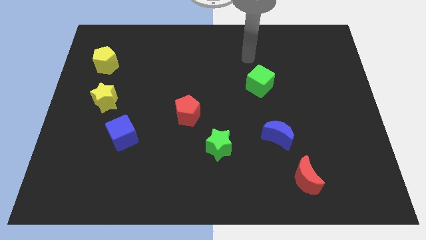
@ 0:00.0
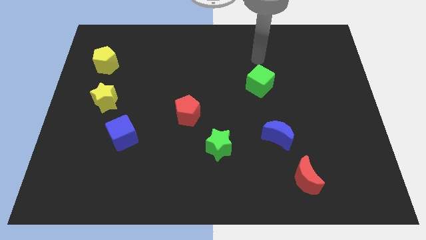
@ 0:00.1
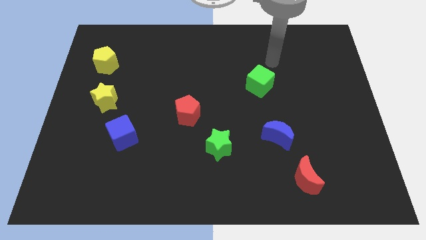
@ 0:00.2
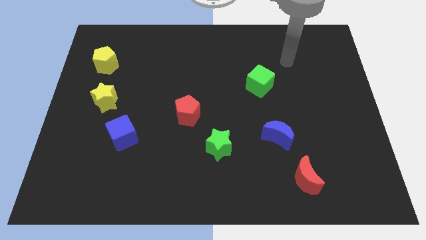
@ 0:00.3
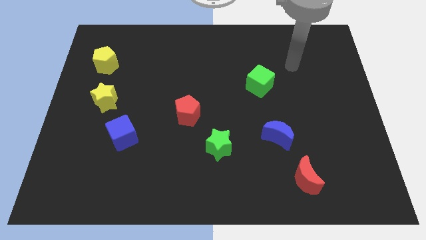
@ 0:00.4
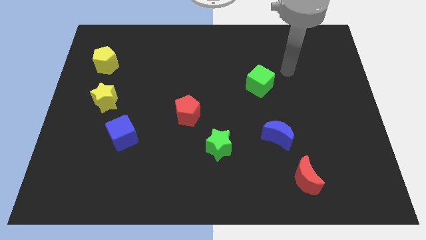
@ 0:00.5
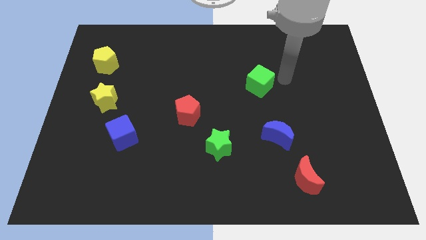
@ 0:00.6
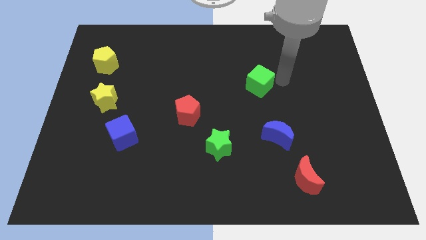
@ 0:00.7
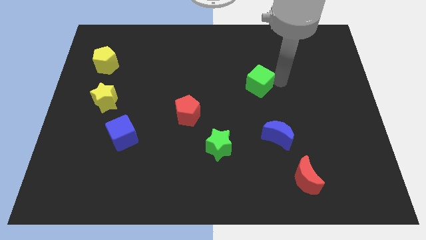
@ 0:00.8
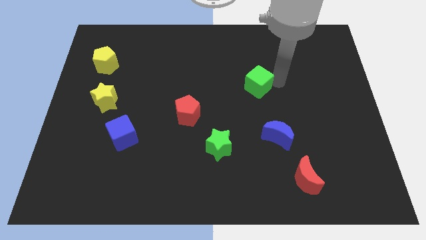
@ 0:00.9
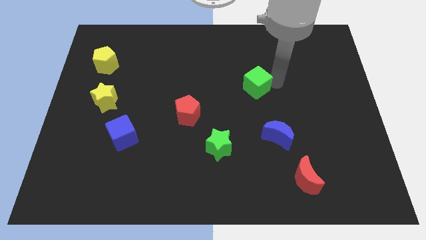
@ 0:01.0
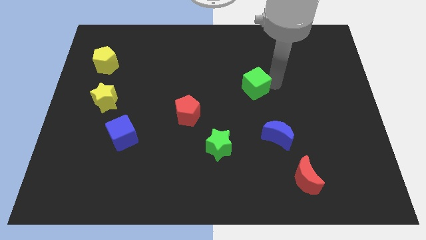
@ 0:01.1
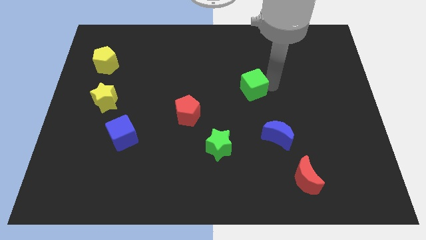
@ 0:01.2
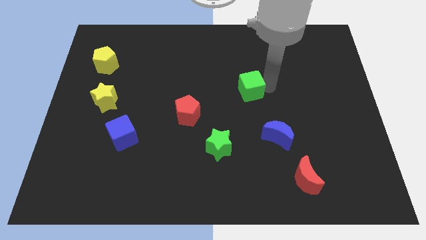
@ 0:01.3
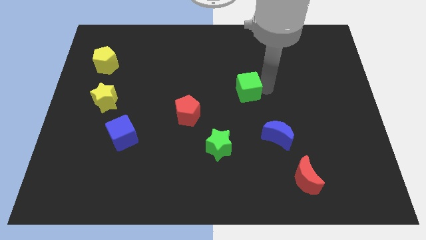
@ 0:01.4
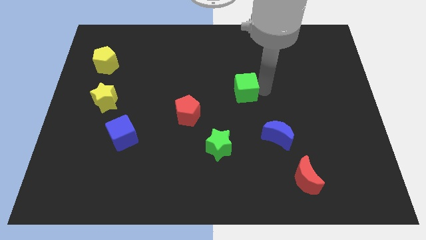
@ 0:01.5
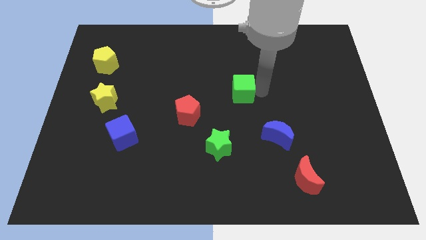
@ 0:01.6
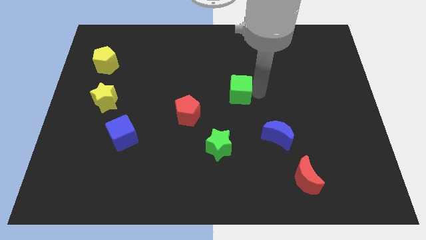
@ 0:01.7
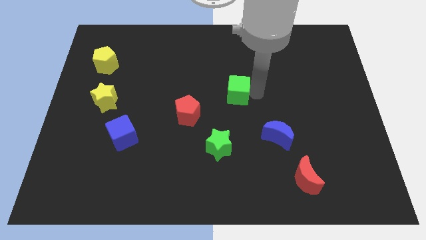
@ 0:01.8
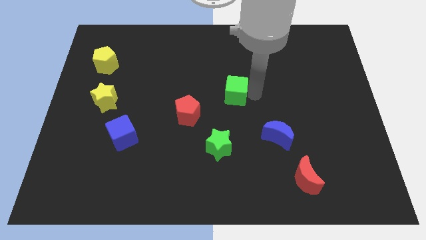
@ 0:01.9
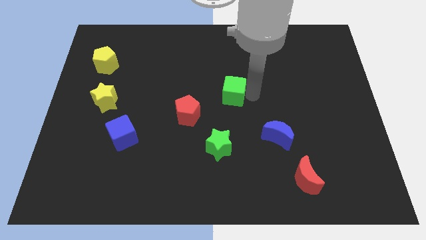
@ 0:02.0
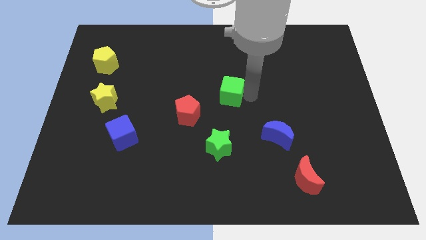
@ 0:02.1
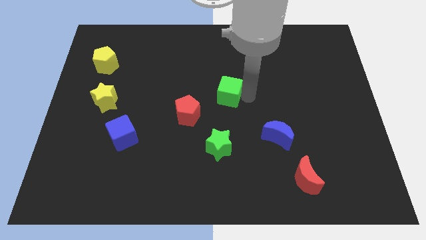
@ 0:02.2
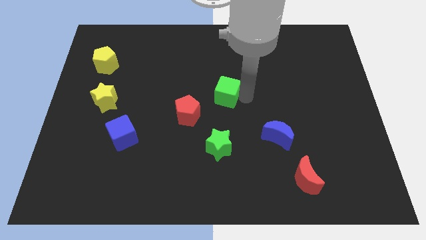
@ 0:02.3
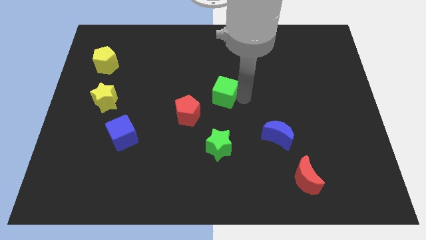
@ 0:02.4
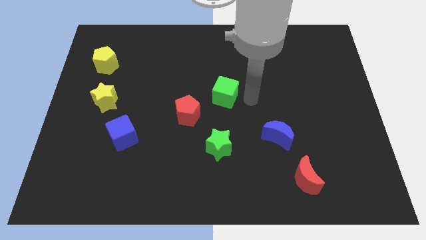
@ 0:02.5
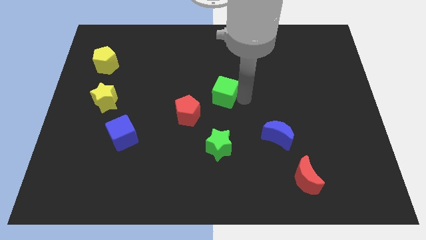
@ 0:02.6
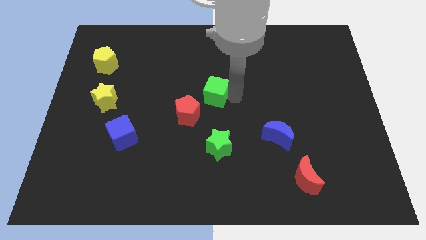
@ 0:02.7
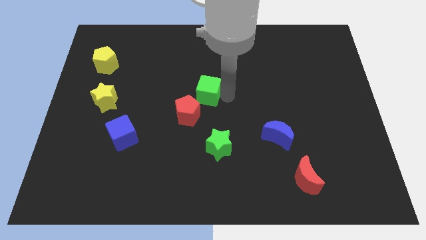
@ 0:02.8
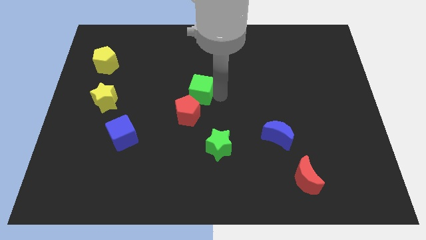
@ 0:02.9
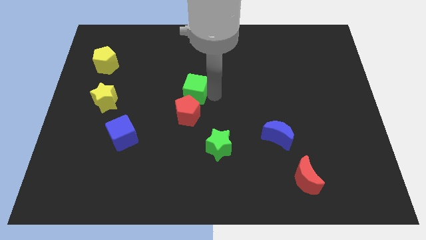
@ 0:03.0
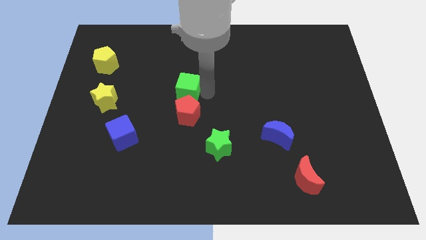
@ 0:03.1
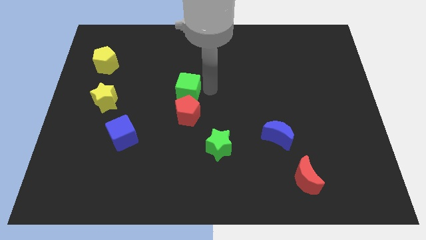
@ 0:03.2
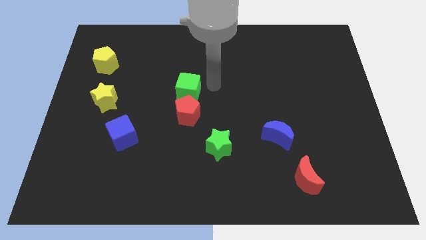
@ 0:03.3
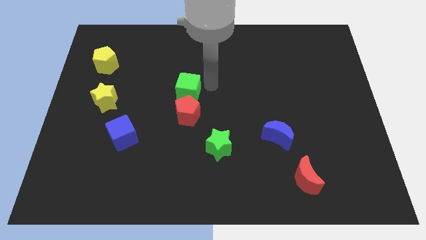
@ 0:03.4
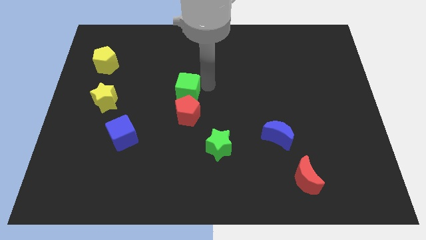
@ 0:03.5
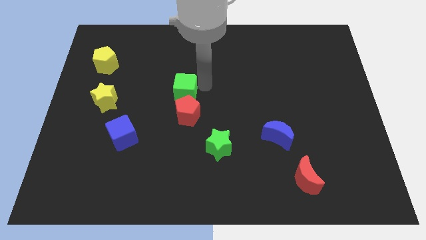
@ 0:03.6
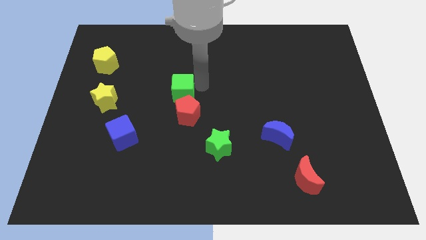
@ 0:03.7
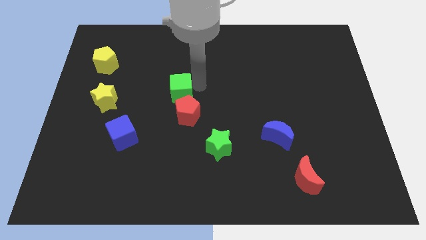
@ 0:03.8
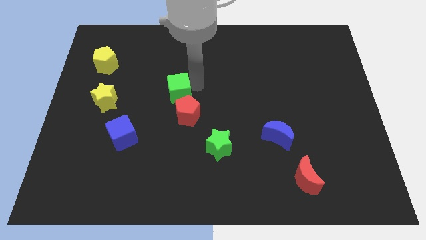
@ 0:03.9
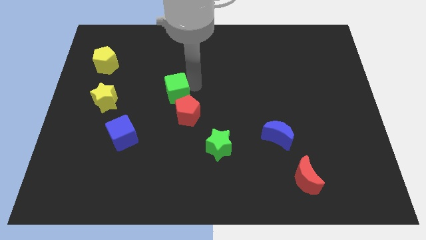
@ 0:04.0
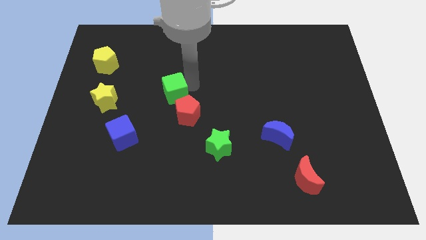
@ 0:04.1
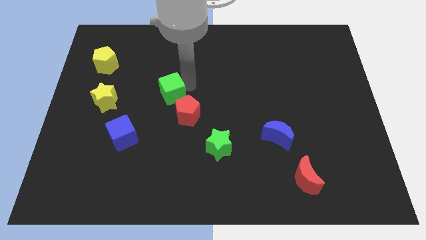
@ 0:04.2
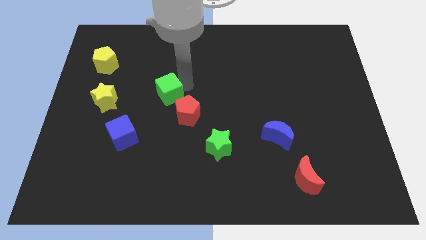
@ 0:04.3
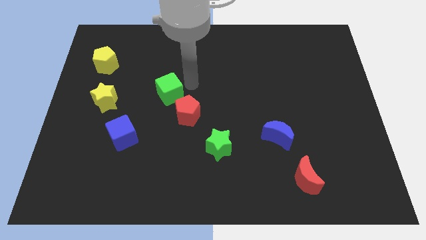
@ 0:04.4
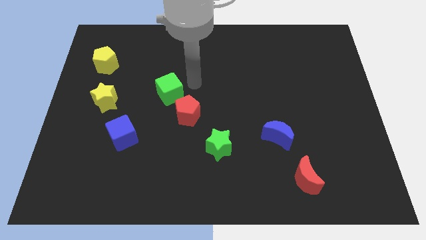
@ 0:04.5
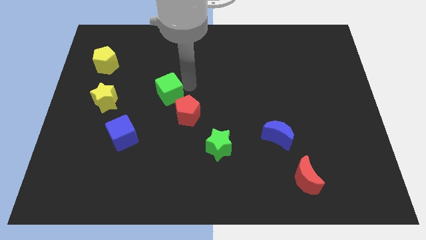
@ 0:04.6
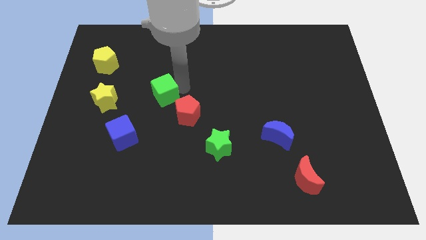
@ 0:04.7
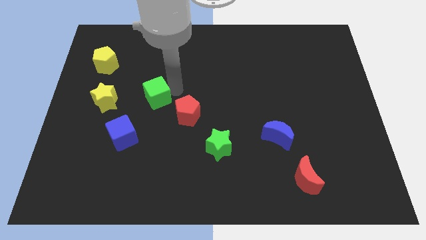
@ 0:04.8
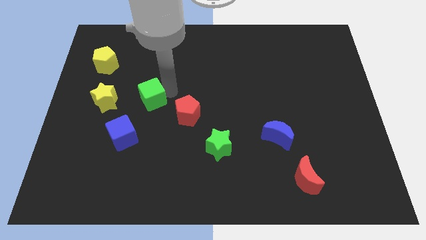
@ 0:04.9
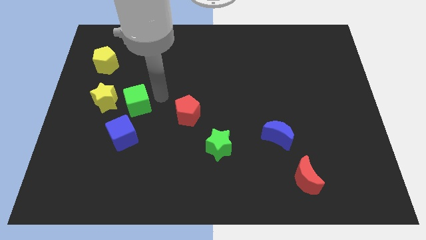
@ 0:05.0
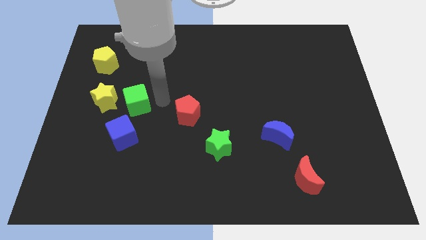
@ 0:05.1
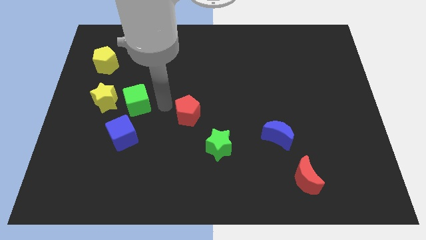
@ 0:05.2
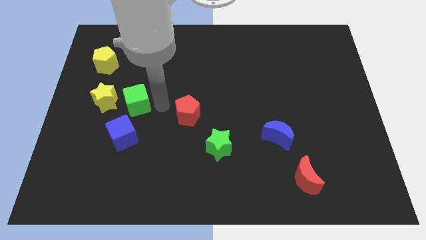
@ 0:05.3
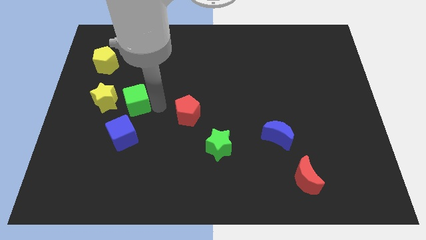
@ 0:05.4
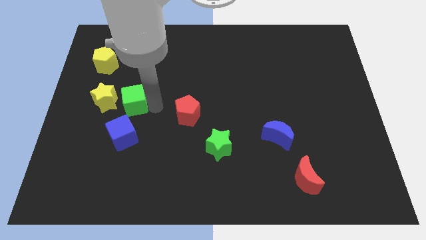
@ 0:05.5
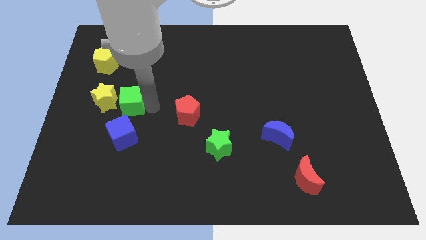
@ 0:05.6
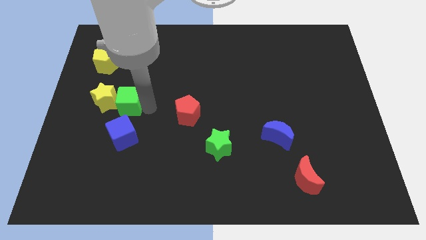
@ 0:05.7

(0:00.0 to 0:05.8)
put the green cube towards the yellow star

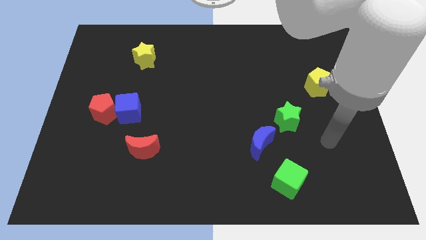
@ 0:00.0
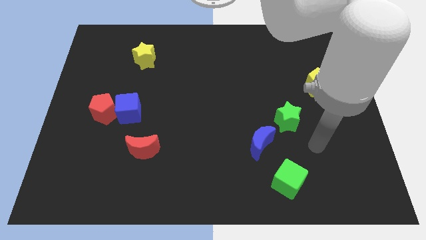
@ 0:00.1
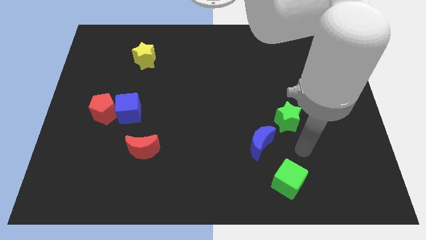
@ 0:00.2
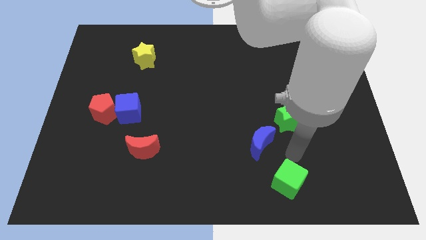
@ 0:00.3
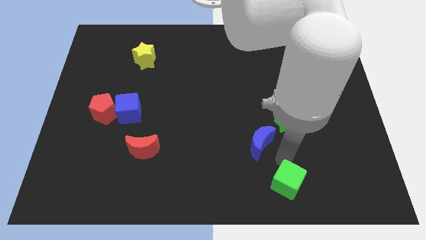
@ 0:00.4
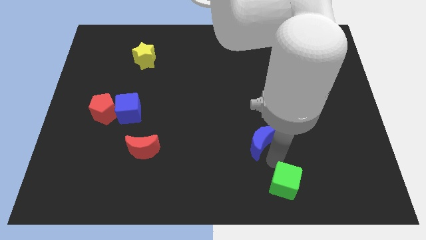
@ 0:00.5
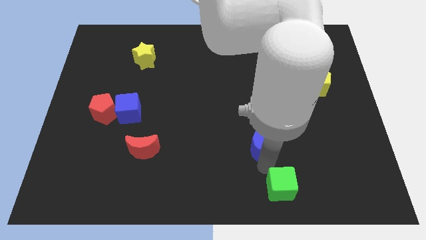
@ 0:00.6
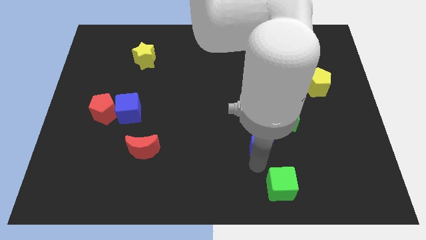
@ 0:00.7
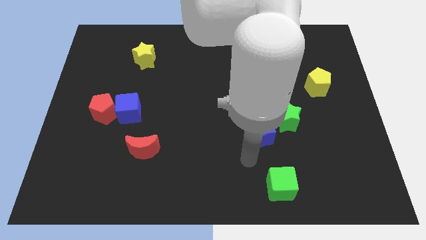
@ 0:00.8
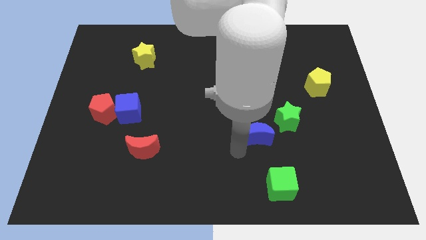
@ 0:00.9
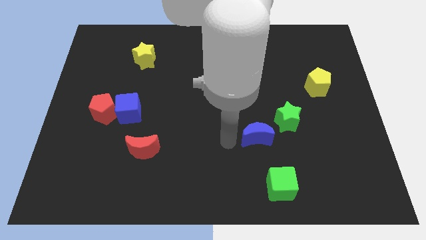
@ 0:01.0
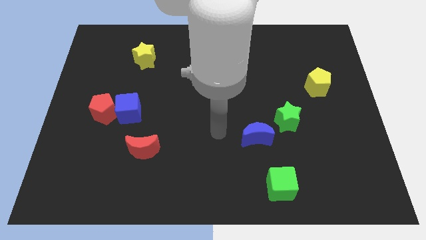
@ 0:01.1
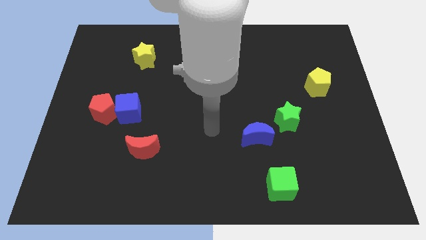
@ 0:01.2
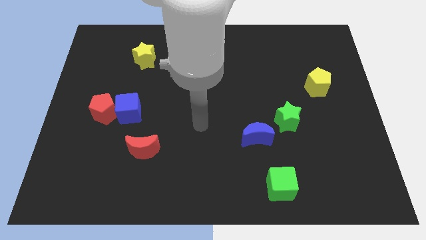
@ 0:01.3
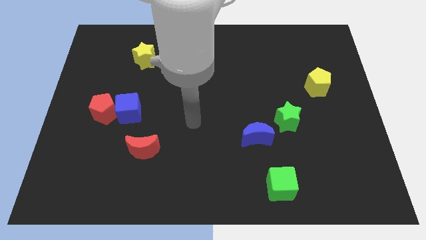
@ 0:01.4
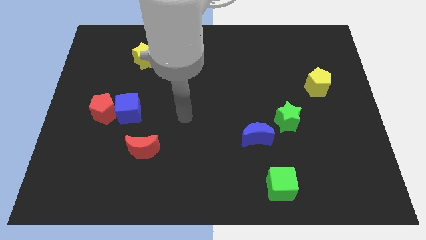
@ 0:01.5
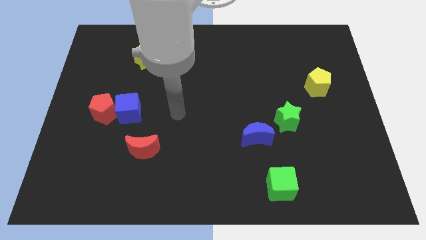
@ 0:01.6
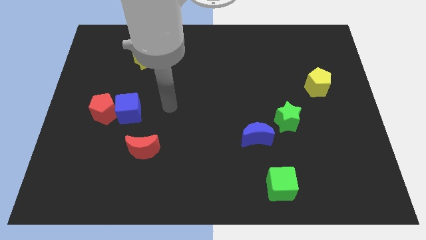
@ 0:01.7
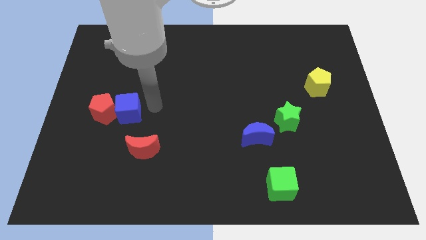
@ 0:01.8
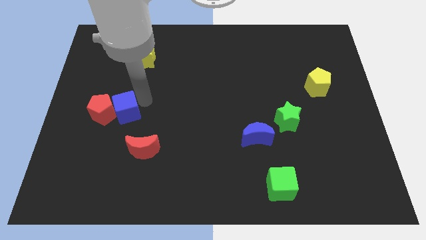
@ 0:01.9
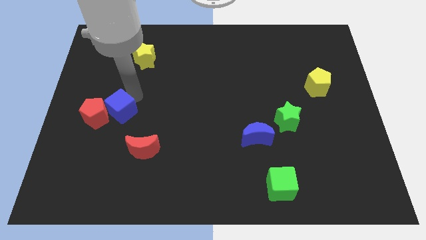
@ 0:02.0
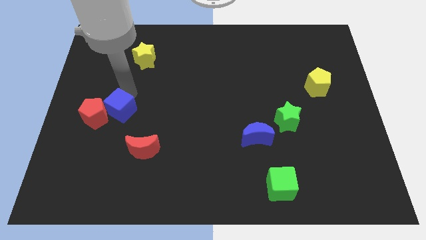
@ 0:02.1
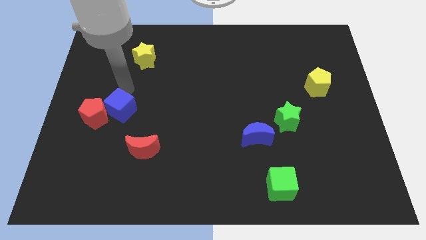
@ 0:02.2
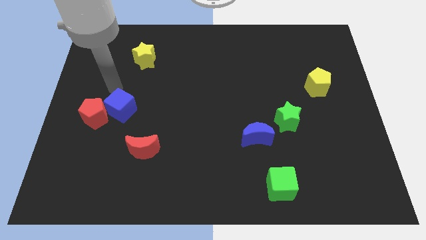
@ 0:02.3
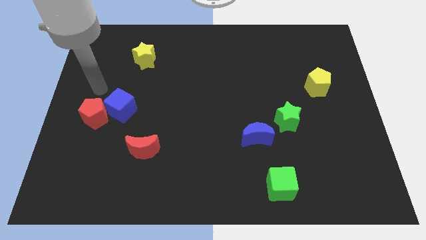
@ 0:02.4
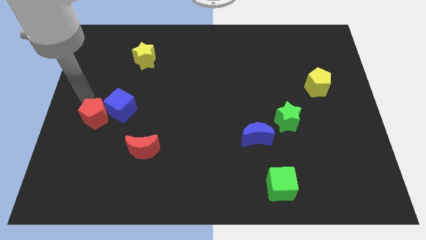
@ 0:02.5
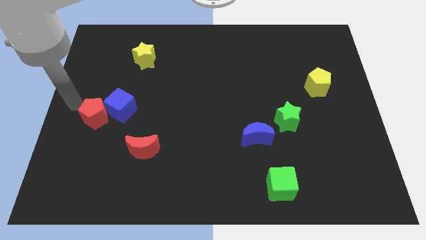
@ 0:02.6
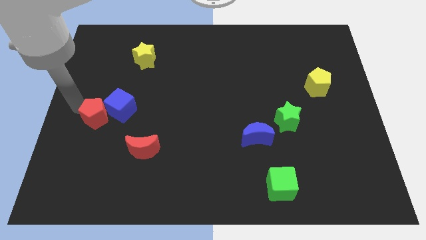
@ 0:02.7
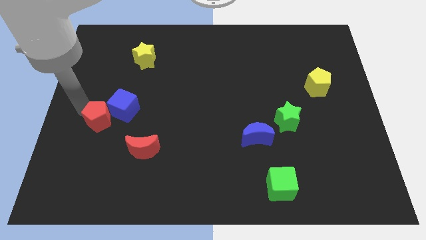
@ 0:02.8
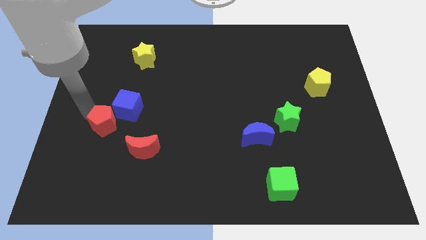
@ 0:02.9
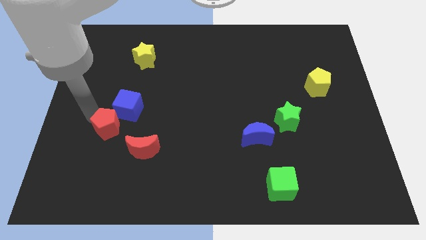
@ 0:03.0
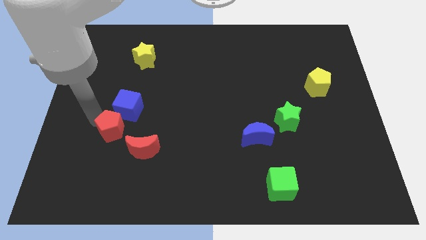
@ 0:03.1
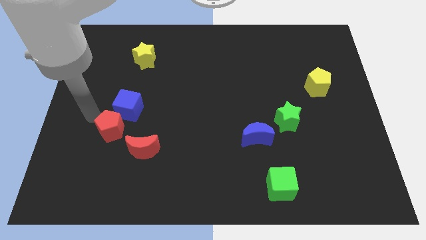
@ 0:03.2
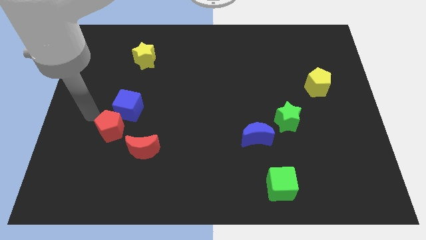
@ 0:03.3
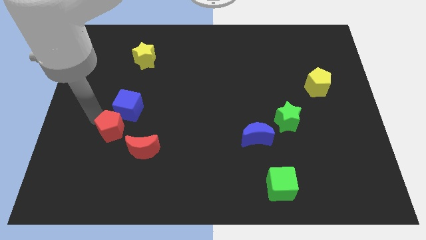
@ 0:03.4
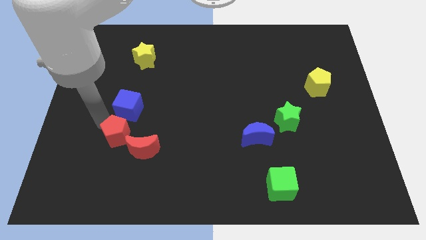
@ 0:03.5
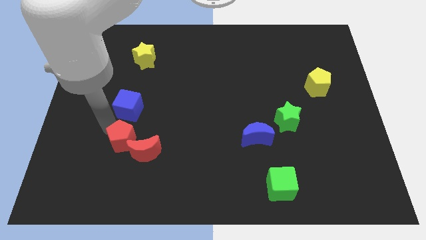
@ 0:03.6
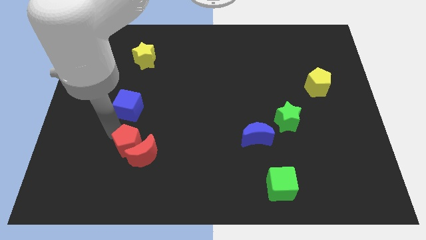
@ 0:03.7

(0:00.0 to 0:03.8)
slide the red pentagon to the red moon
